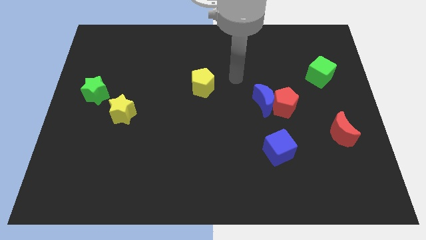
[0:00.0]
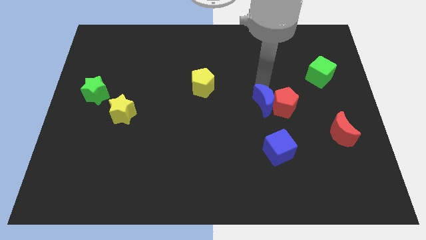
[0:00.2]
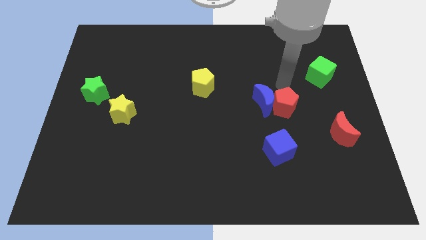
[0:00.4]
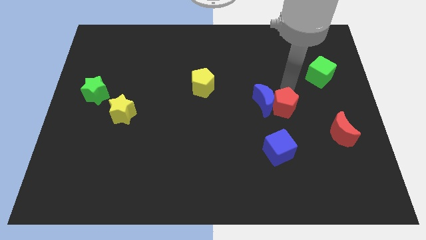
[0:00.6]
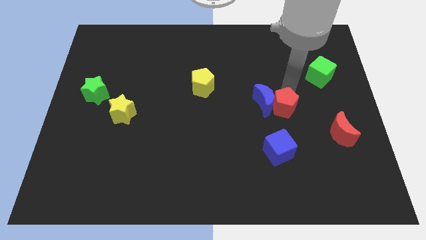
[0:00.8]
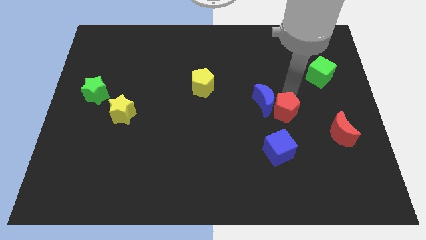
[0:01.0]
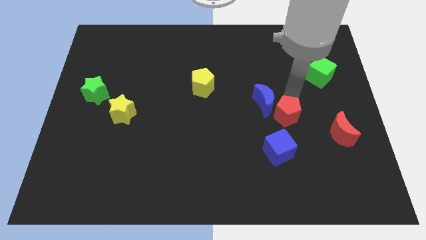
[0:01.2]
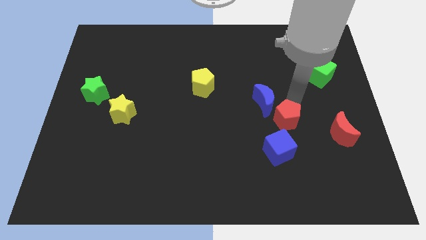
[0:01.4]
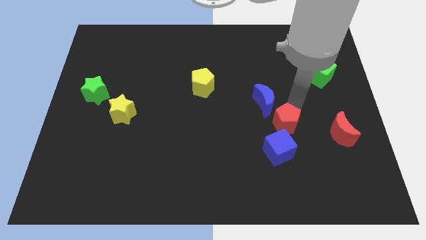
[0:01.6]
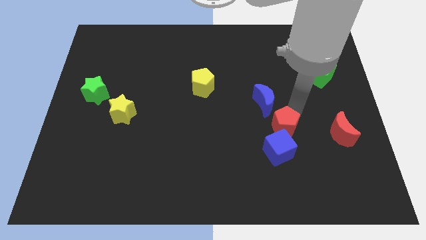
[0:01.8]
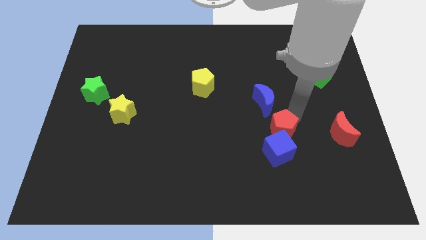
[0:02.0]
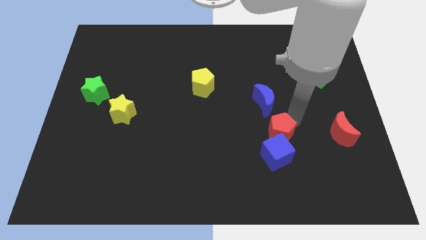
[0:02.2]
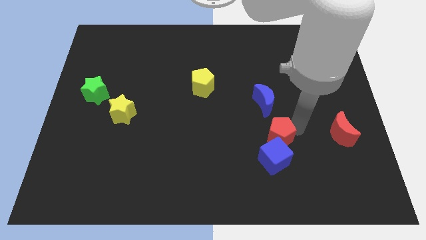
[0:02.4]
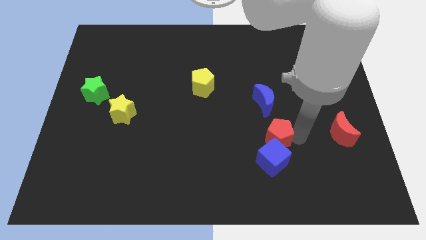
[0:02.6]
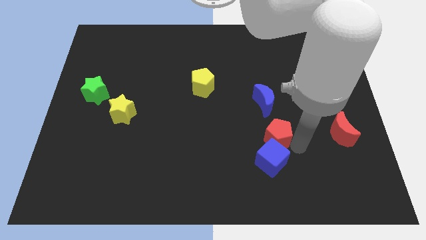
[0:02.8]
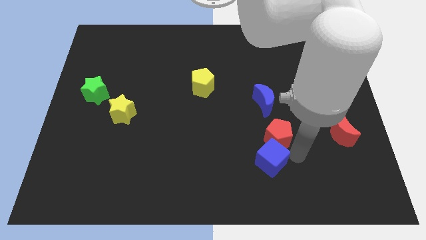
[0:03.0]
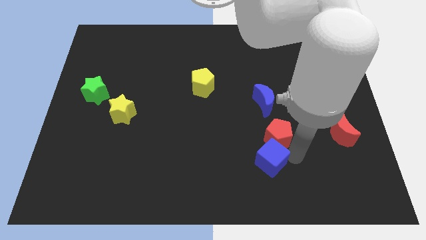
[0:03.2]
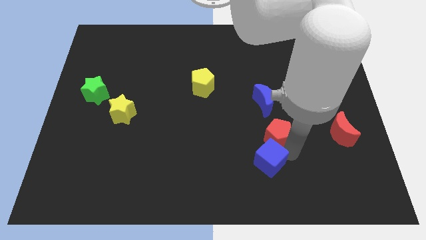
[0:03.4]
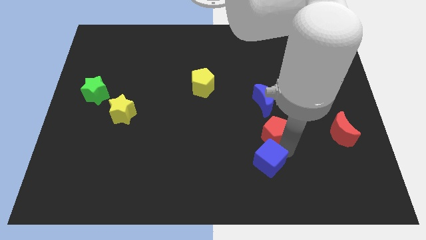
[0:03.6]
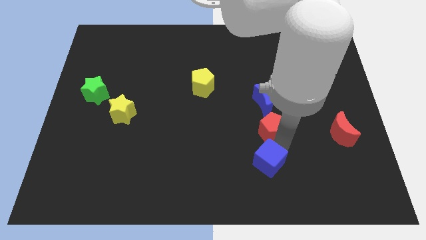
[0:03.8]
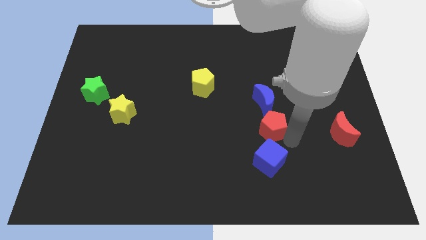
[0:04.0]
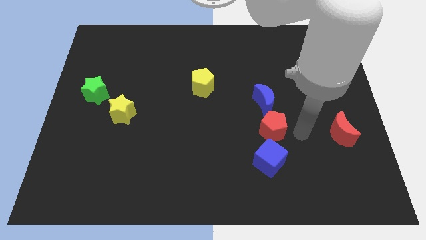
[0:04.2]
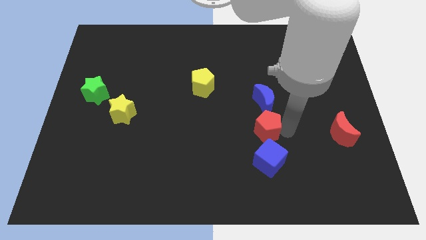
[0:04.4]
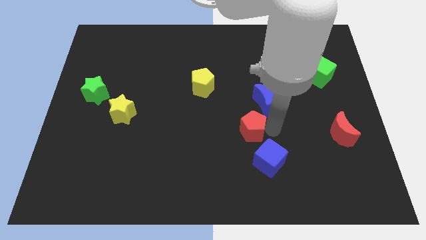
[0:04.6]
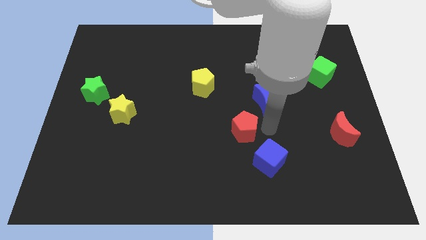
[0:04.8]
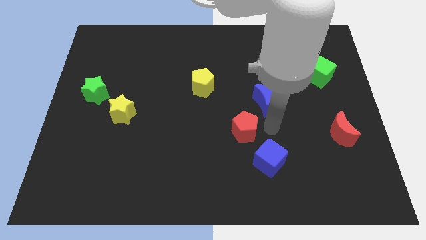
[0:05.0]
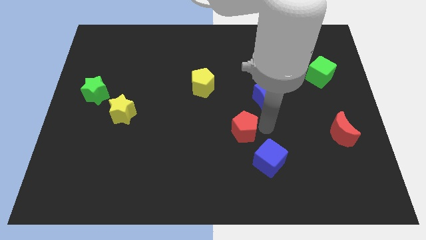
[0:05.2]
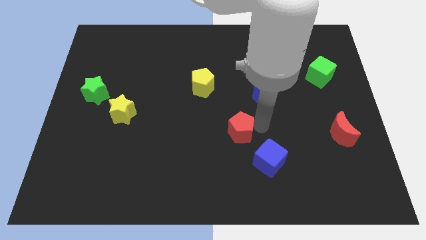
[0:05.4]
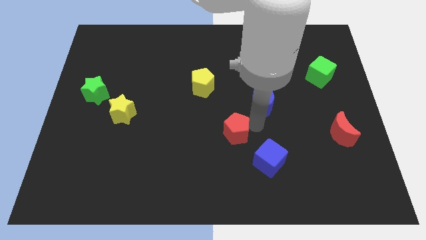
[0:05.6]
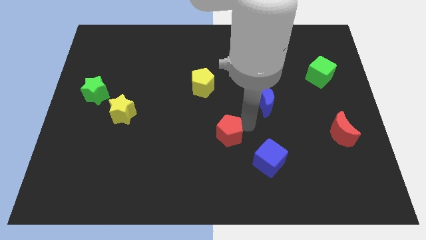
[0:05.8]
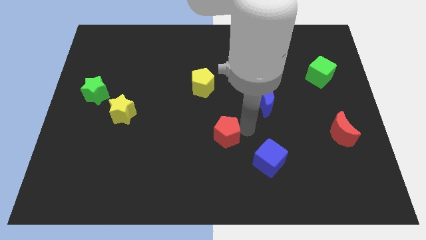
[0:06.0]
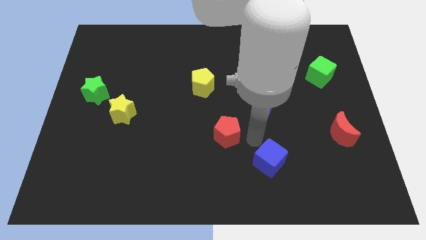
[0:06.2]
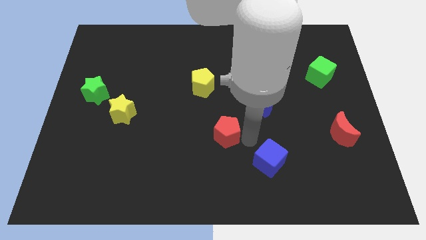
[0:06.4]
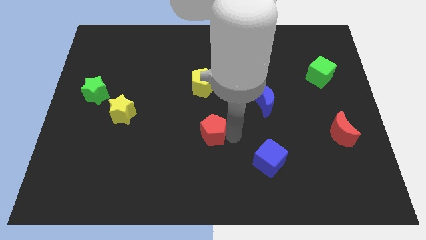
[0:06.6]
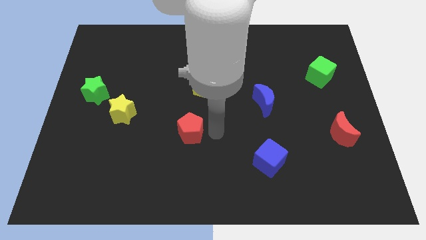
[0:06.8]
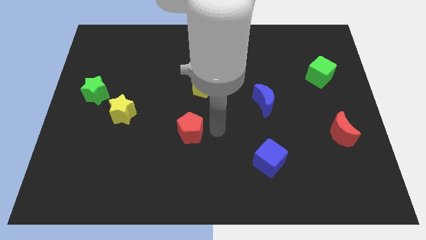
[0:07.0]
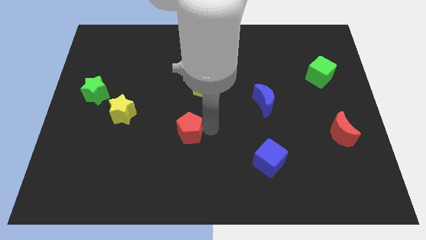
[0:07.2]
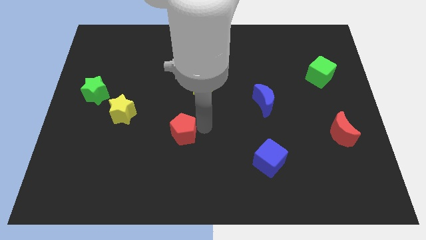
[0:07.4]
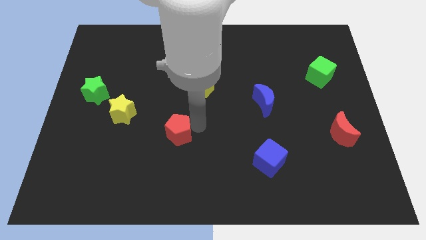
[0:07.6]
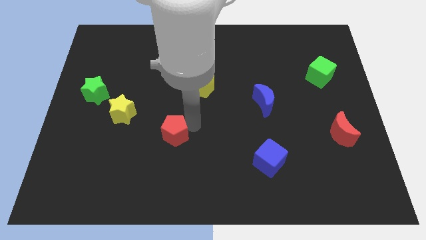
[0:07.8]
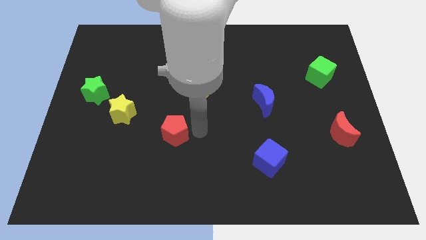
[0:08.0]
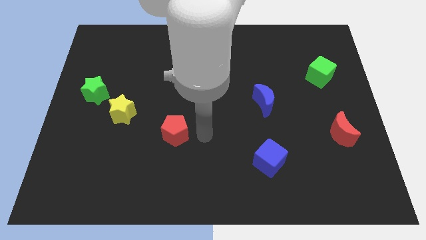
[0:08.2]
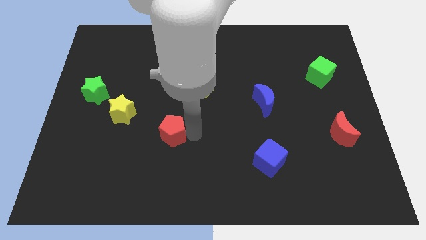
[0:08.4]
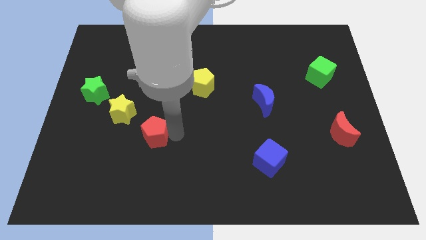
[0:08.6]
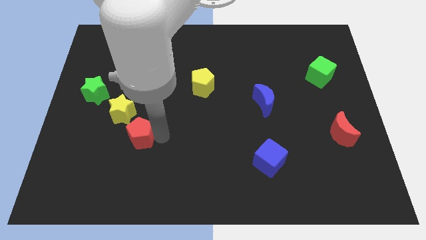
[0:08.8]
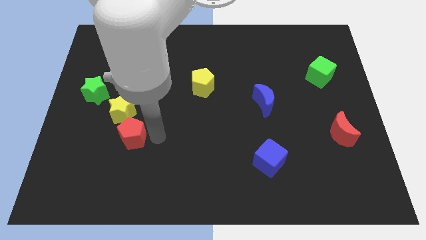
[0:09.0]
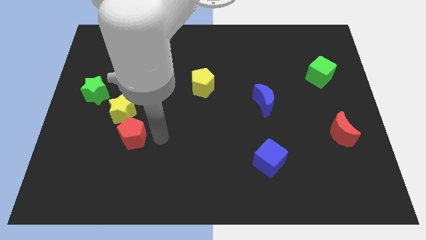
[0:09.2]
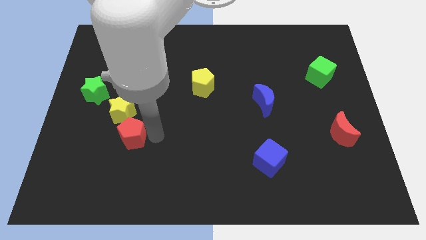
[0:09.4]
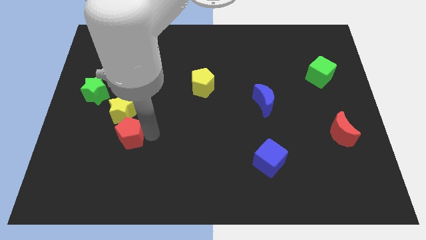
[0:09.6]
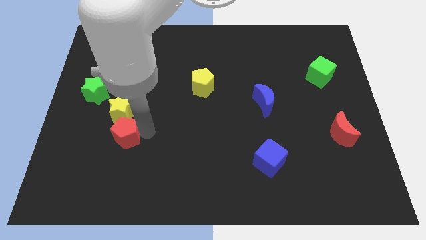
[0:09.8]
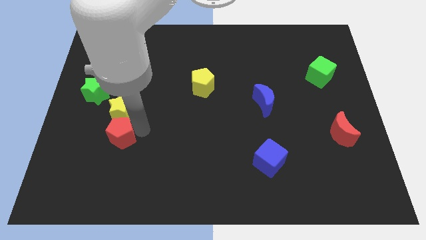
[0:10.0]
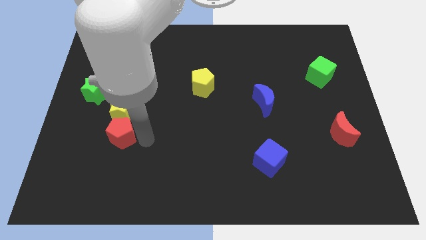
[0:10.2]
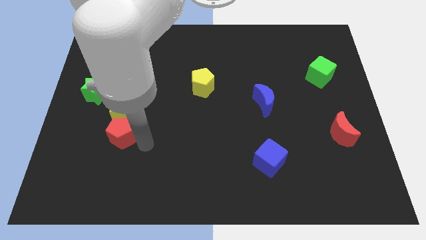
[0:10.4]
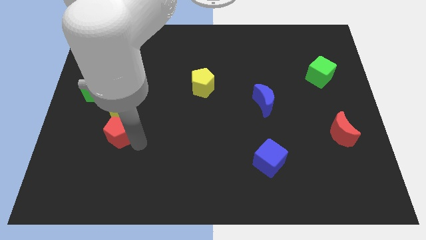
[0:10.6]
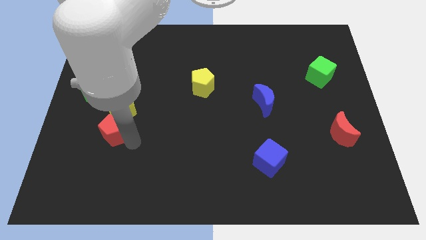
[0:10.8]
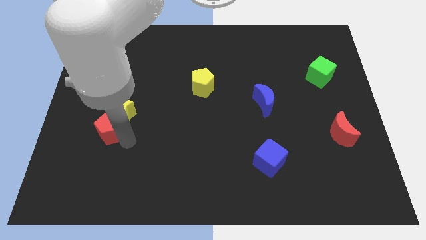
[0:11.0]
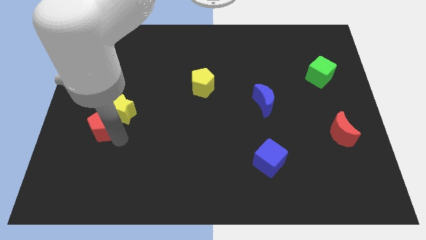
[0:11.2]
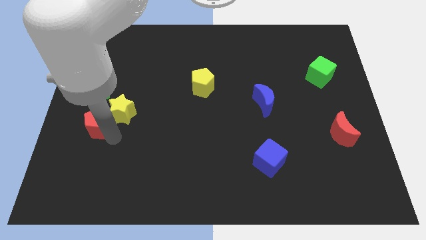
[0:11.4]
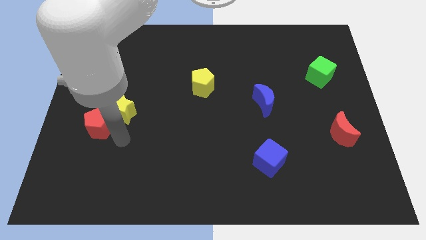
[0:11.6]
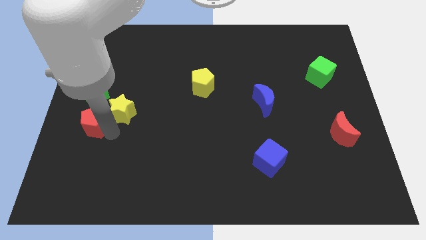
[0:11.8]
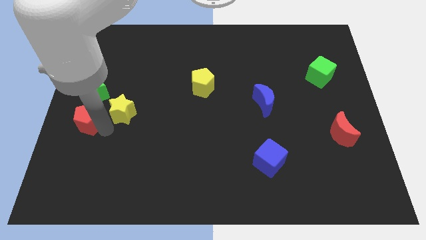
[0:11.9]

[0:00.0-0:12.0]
move the red pentagon to the center left
